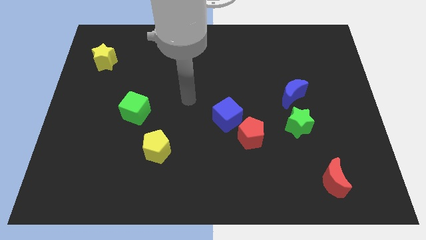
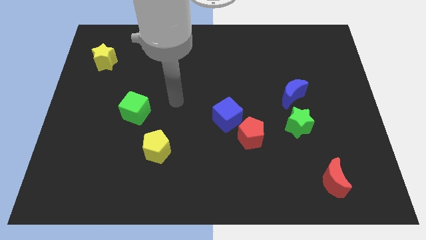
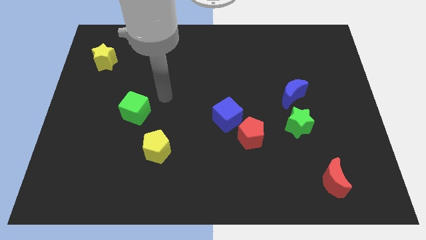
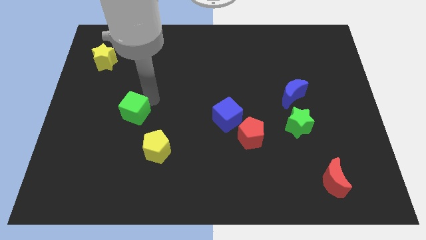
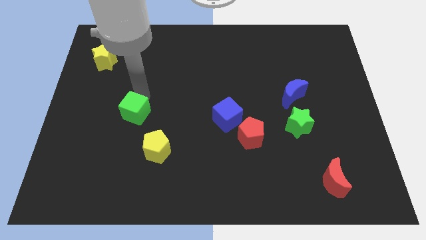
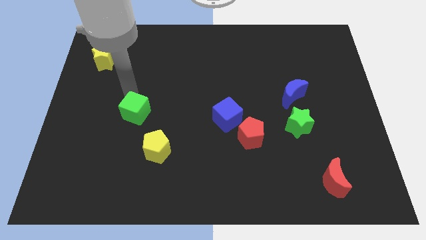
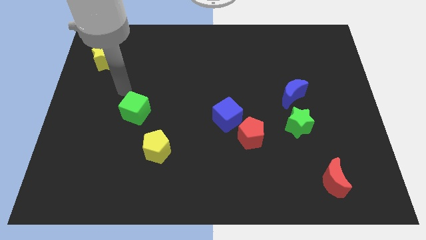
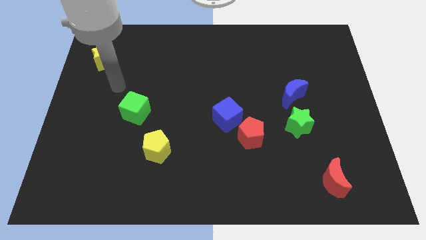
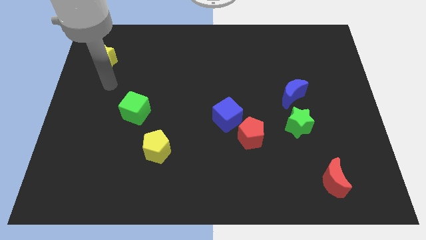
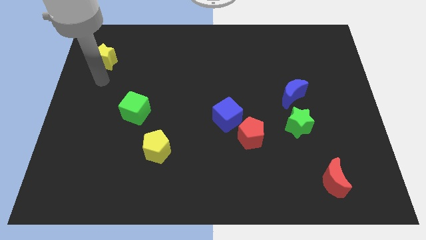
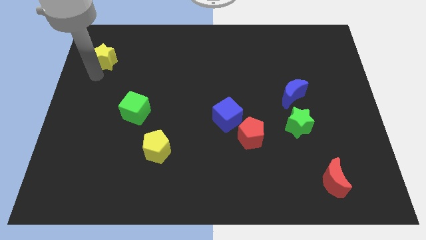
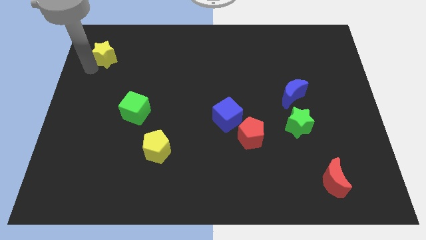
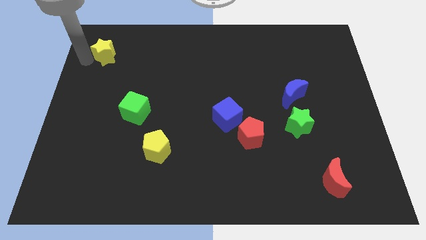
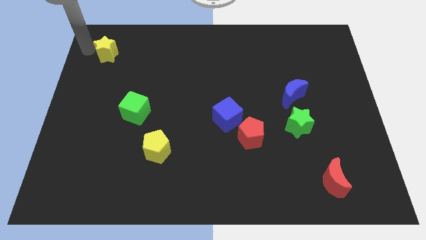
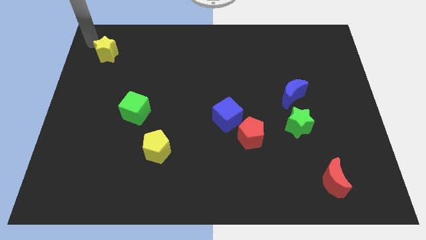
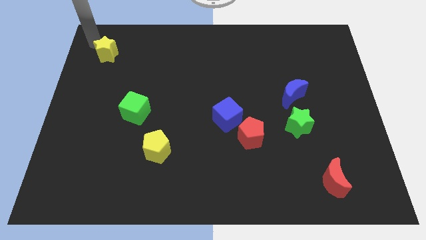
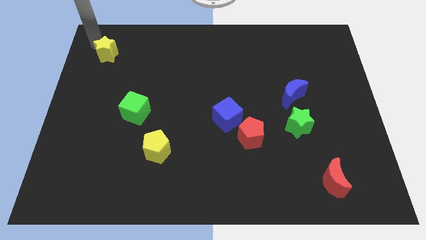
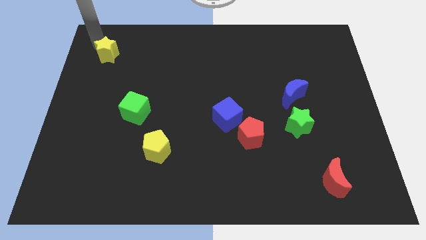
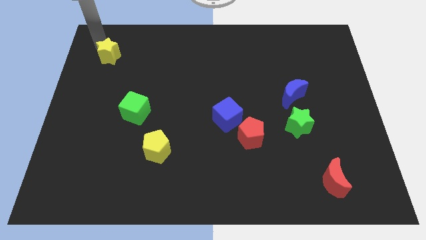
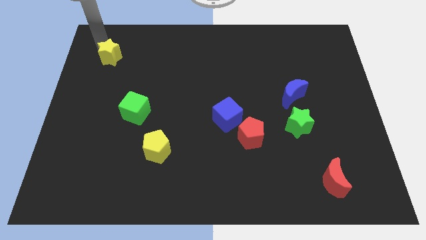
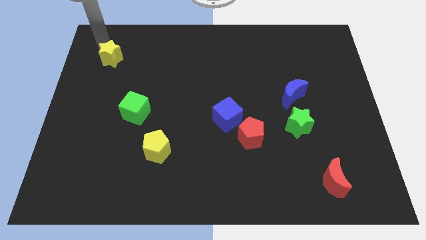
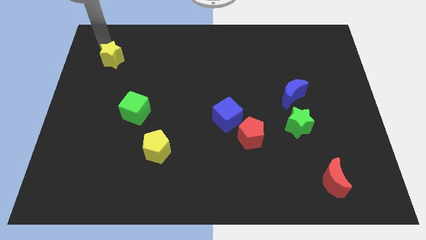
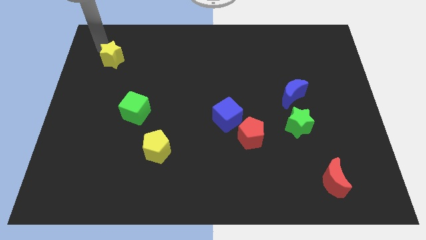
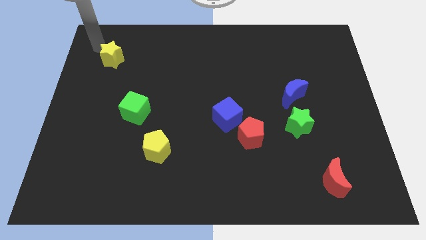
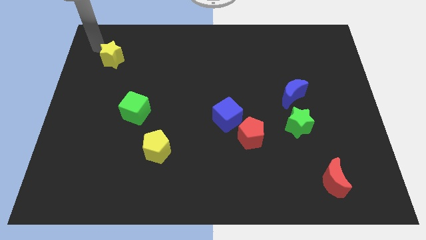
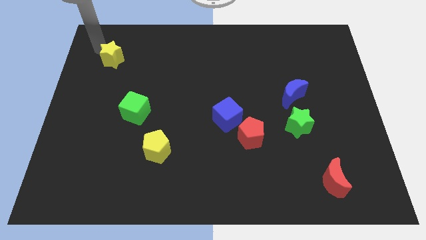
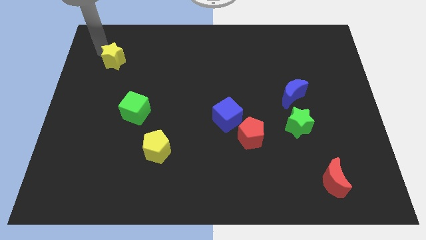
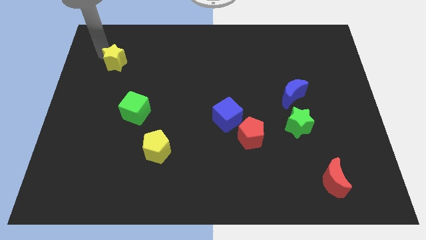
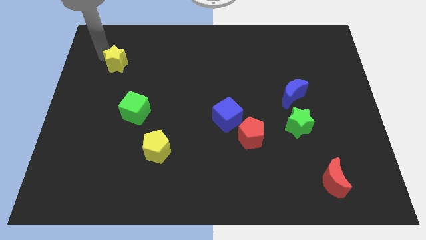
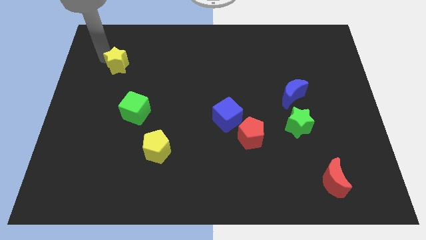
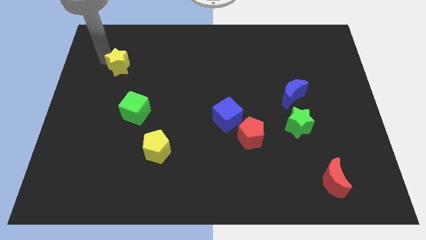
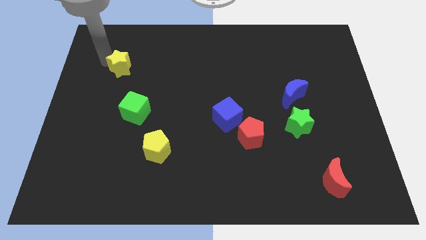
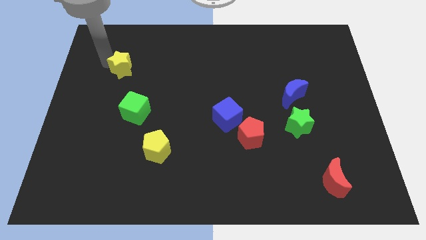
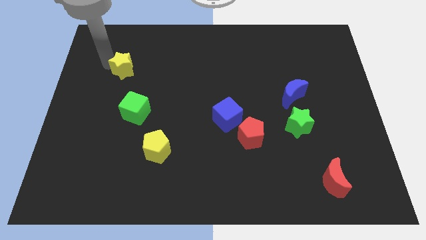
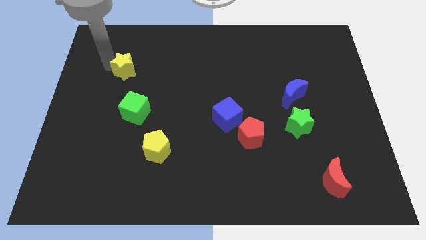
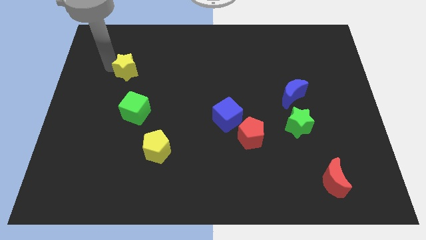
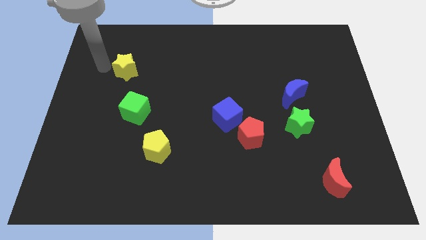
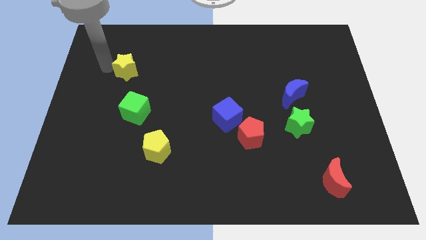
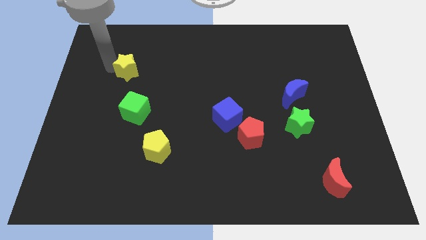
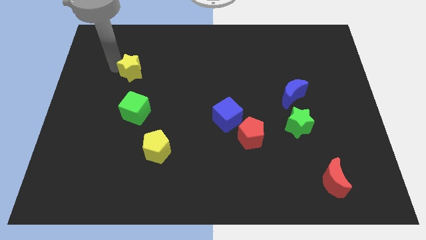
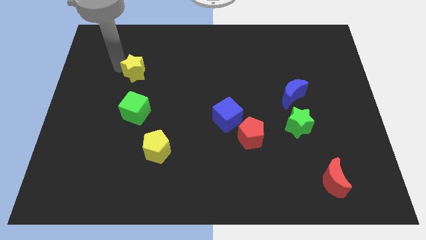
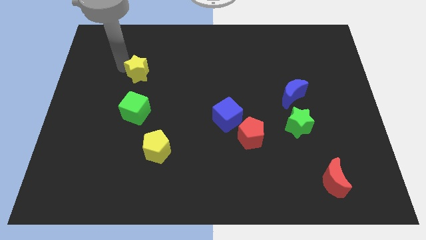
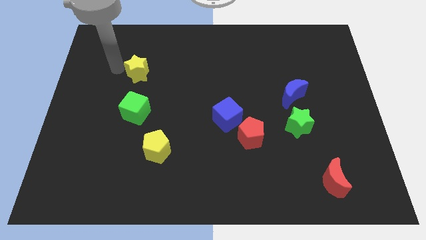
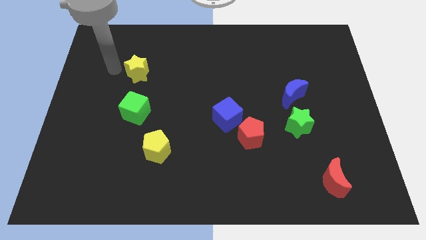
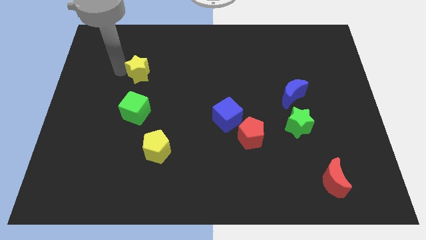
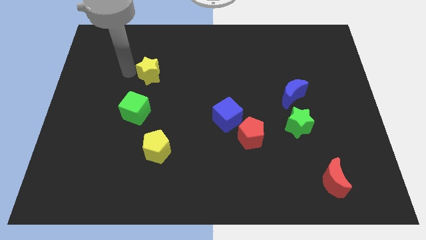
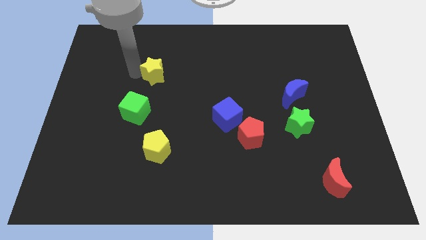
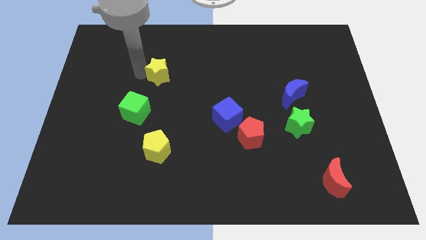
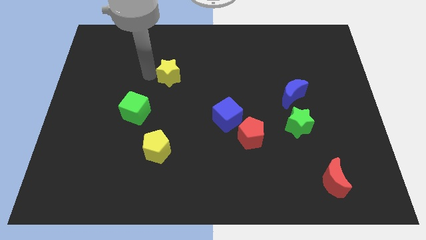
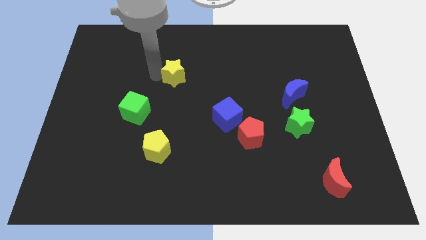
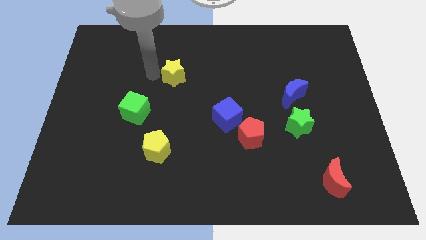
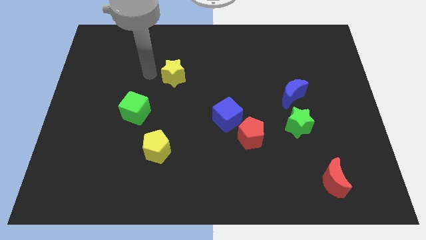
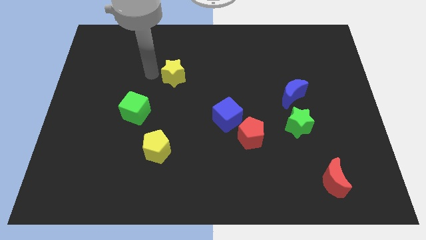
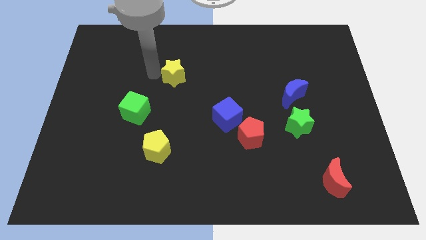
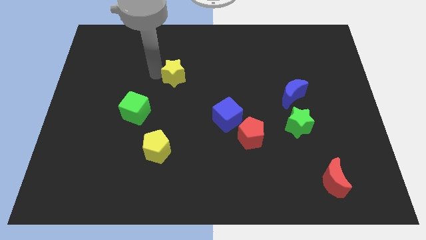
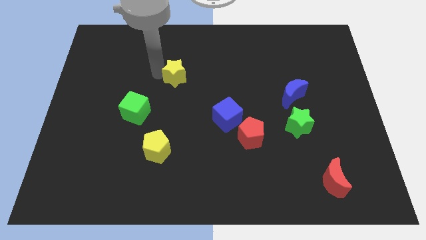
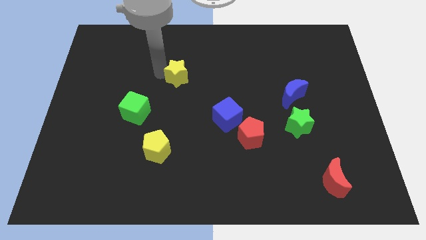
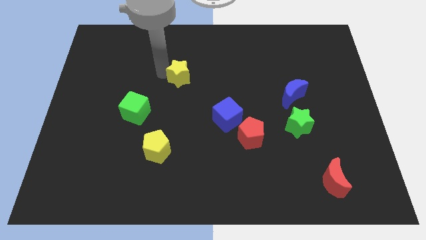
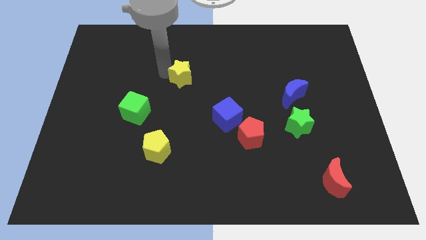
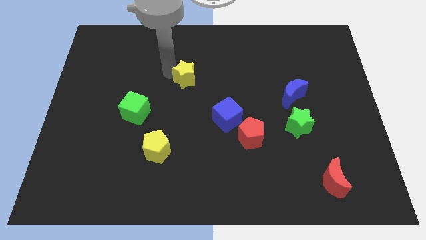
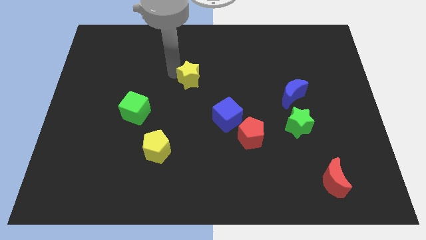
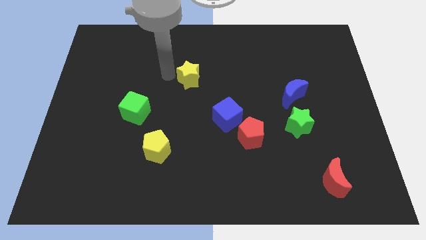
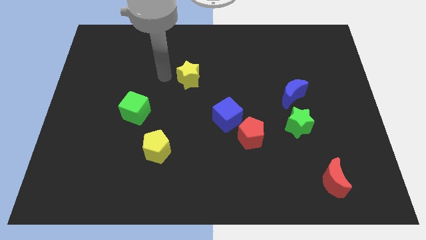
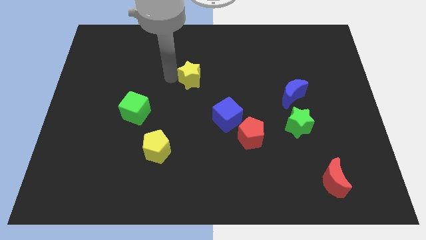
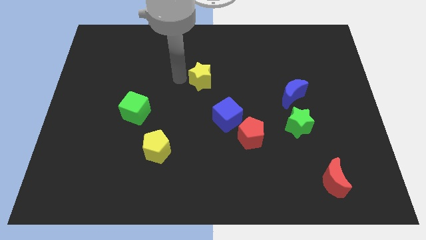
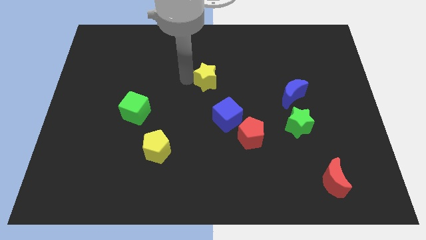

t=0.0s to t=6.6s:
push the yellow star above the blue cube
